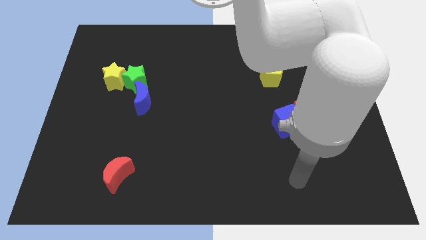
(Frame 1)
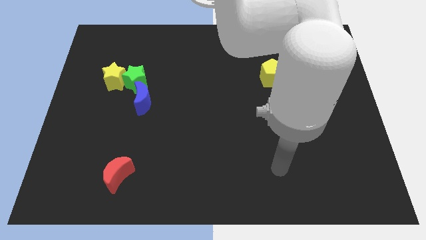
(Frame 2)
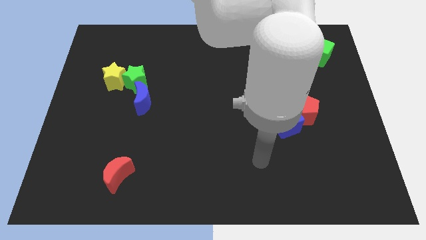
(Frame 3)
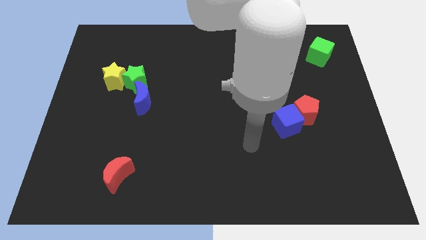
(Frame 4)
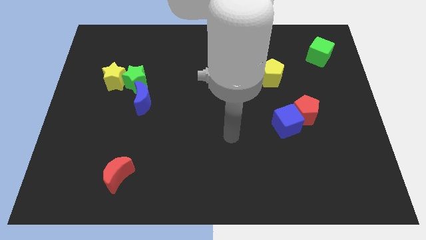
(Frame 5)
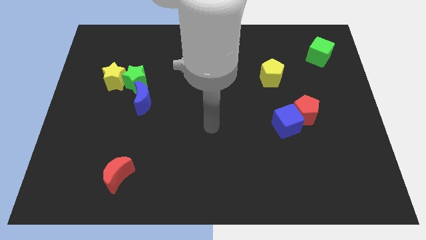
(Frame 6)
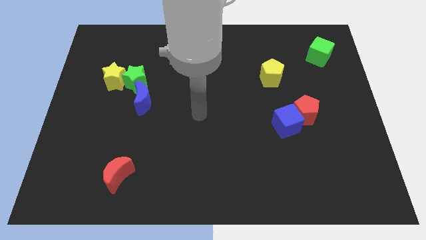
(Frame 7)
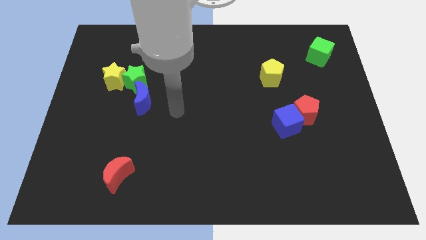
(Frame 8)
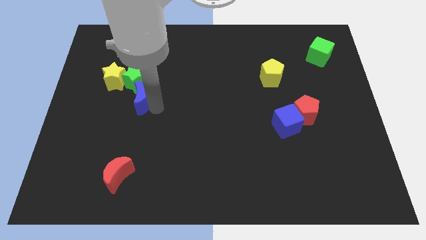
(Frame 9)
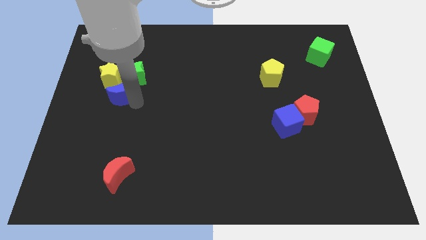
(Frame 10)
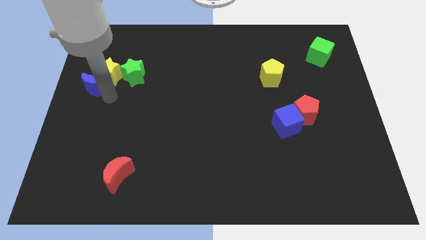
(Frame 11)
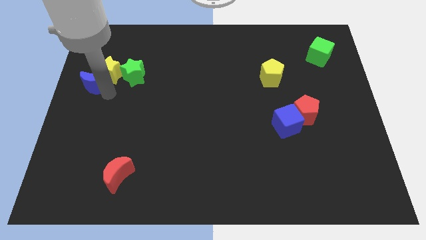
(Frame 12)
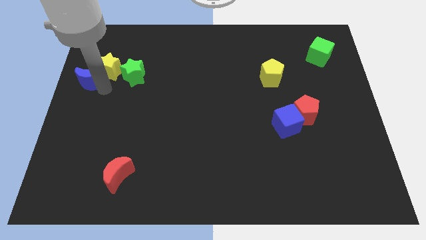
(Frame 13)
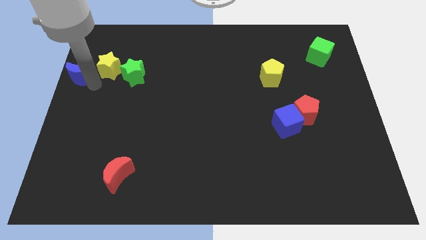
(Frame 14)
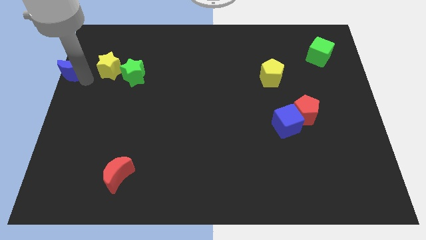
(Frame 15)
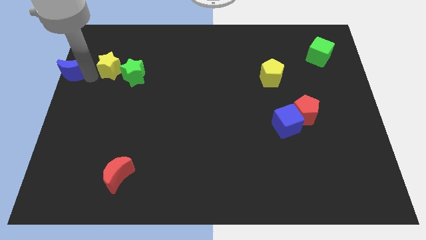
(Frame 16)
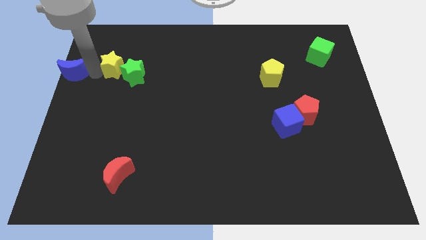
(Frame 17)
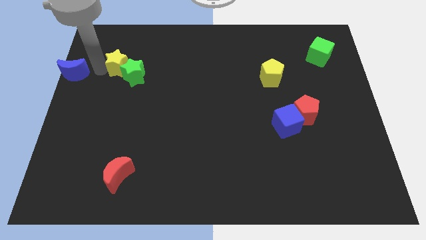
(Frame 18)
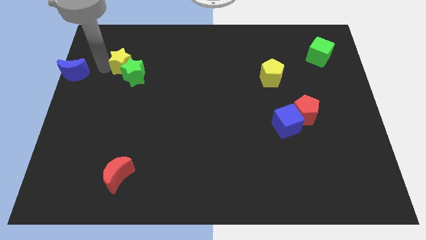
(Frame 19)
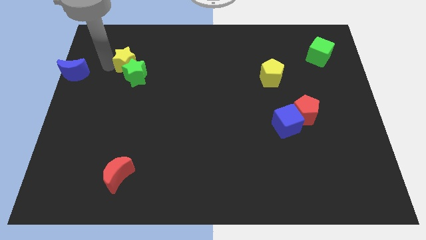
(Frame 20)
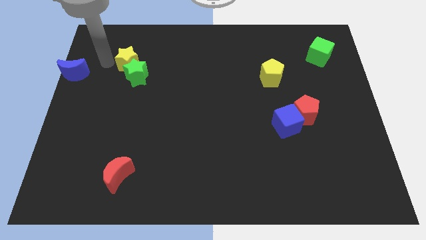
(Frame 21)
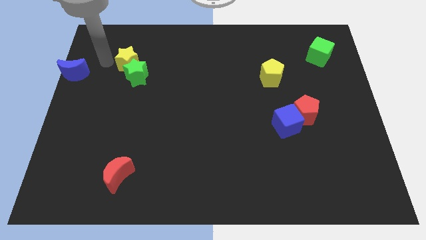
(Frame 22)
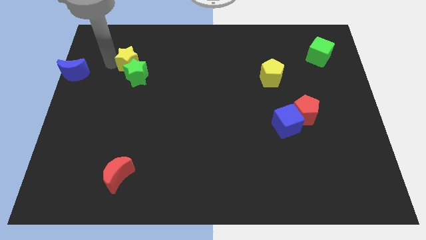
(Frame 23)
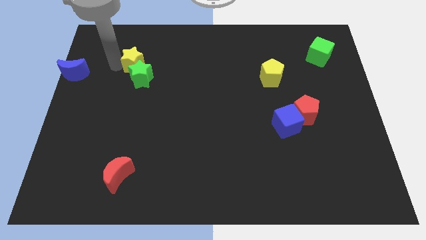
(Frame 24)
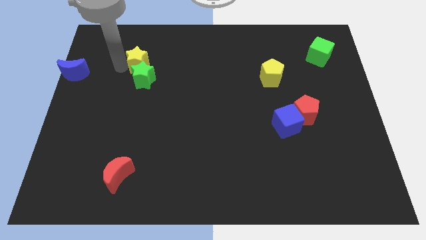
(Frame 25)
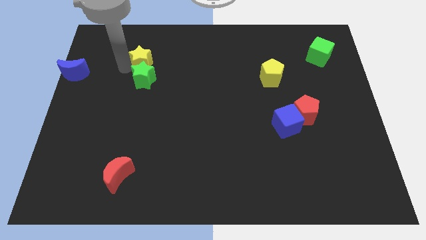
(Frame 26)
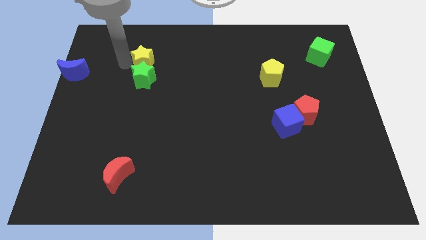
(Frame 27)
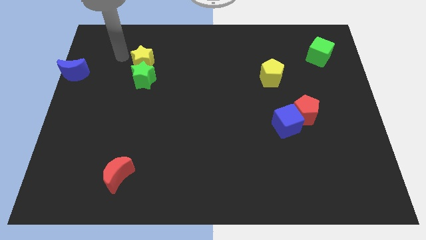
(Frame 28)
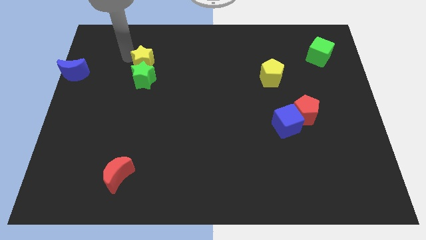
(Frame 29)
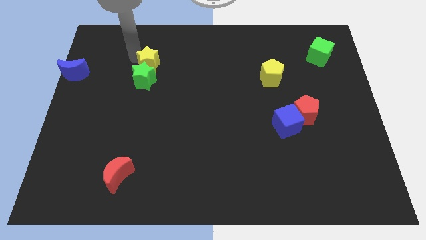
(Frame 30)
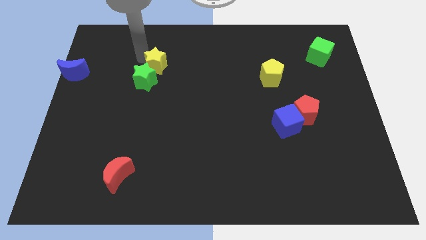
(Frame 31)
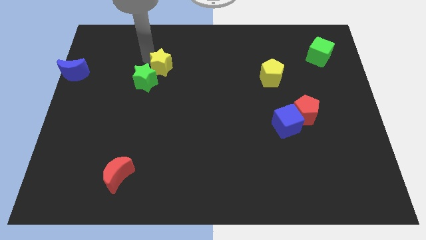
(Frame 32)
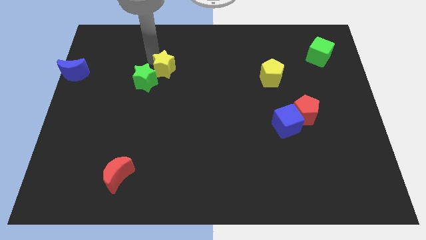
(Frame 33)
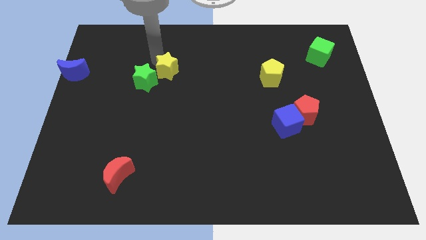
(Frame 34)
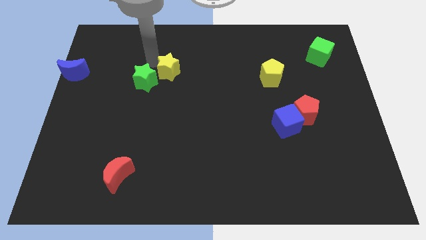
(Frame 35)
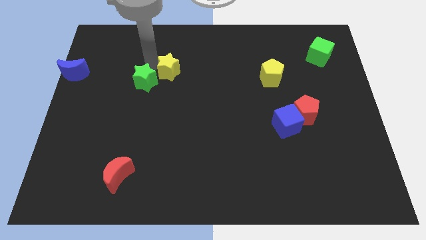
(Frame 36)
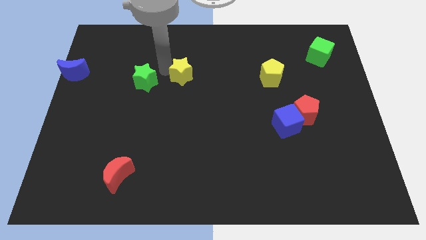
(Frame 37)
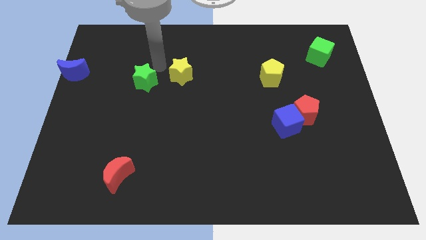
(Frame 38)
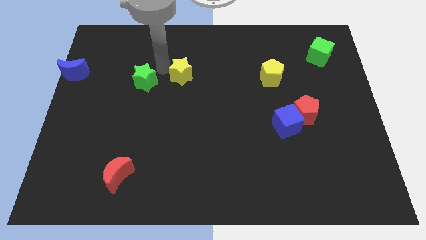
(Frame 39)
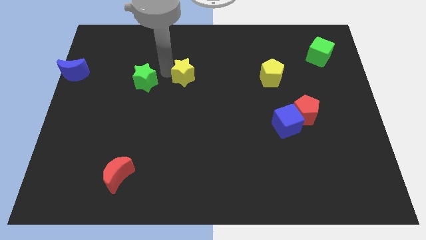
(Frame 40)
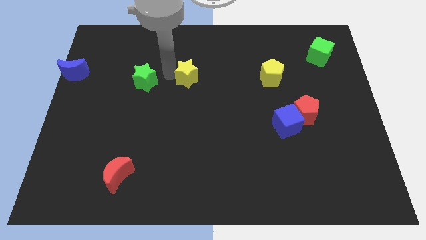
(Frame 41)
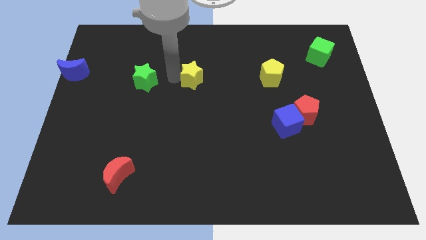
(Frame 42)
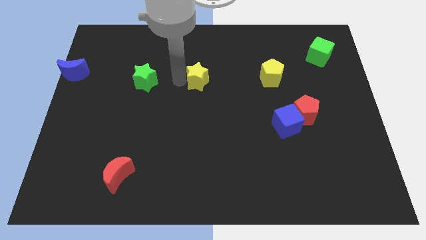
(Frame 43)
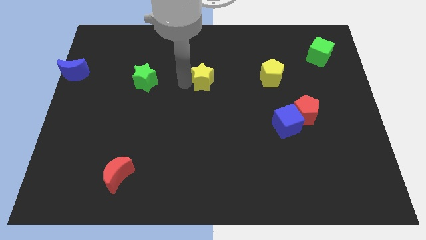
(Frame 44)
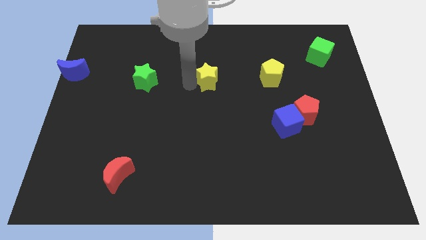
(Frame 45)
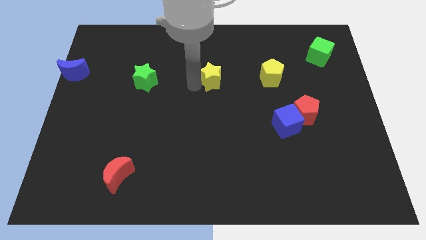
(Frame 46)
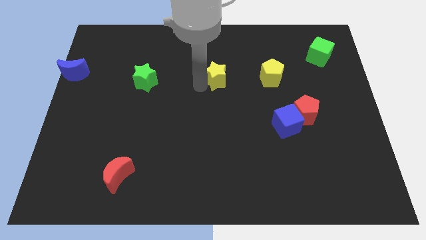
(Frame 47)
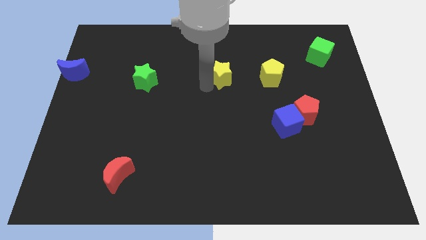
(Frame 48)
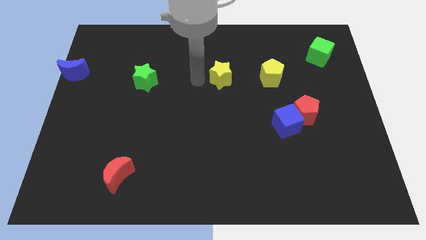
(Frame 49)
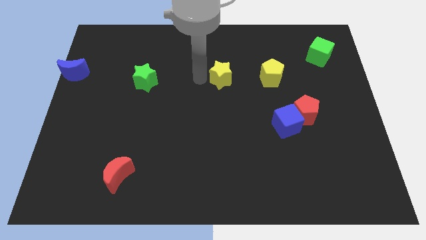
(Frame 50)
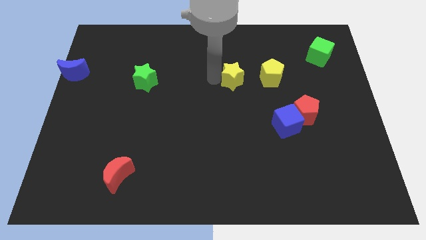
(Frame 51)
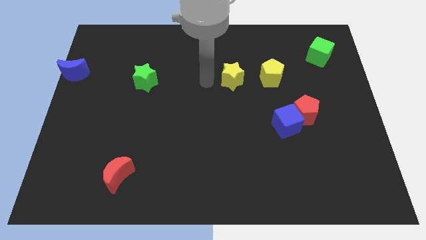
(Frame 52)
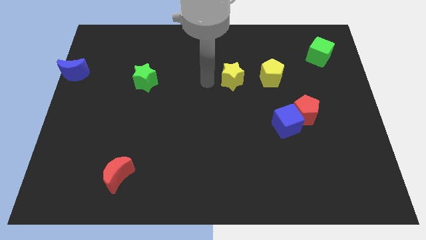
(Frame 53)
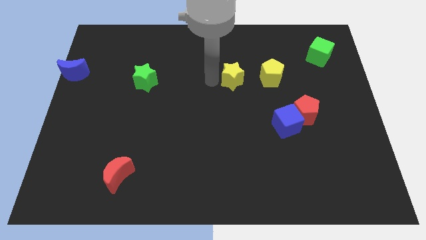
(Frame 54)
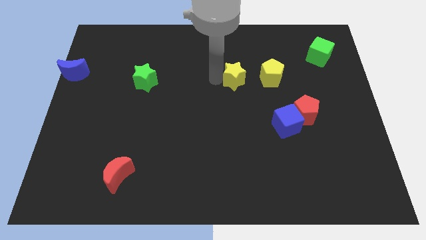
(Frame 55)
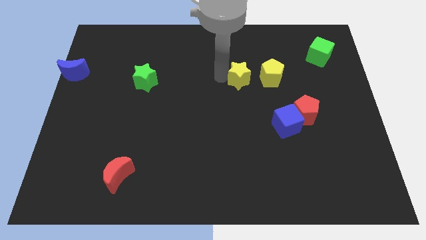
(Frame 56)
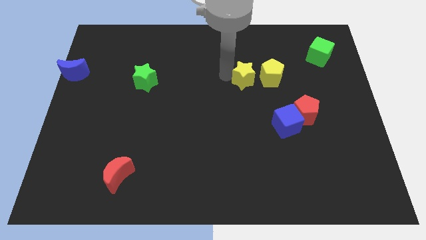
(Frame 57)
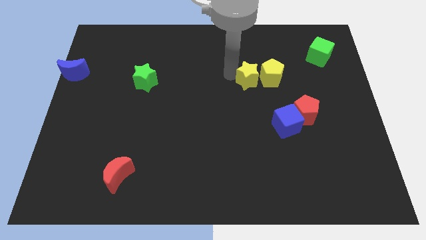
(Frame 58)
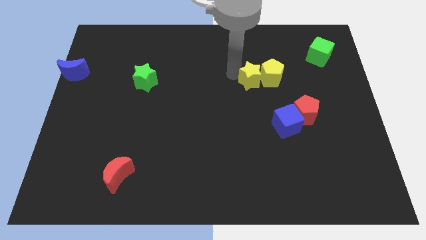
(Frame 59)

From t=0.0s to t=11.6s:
put the yellow star next to the yellow pentagon

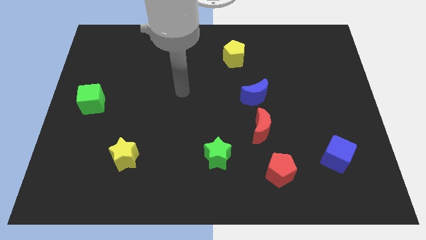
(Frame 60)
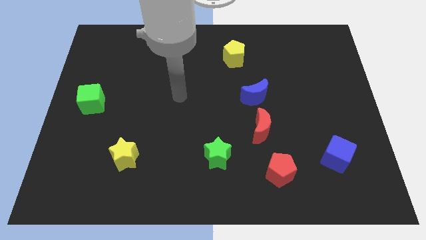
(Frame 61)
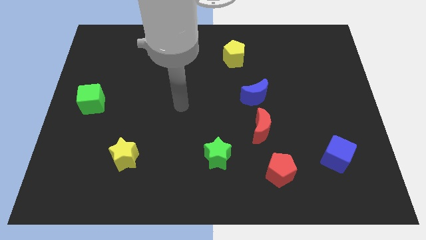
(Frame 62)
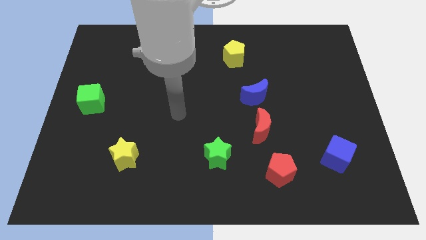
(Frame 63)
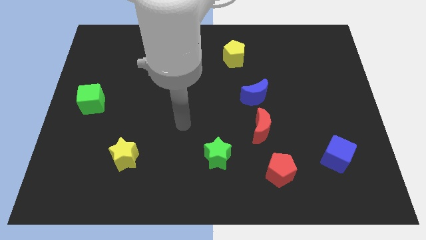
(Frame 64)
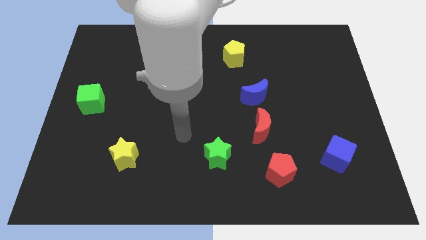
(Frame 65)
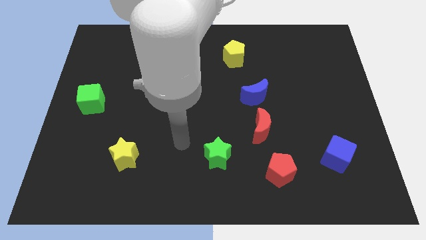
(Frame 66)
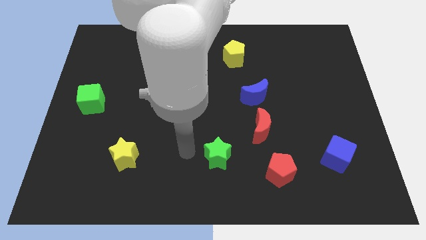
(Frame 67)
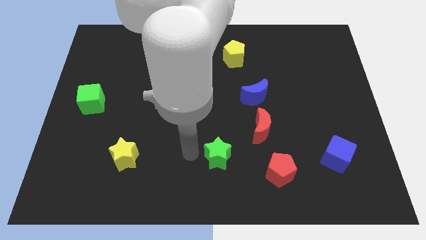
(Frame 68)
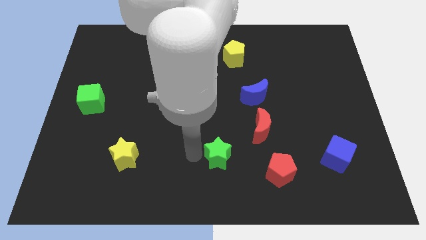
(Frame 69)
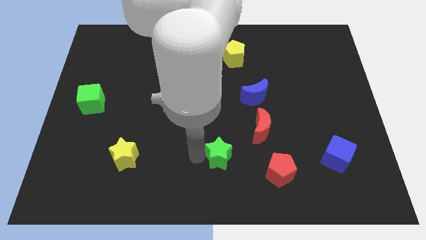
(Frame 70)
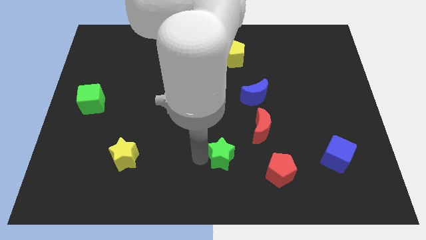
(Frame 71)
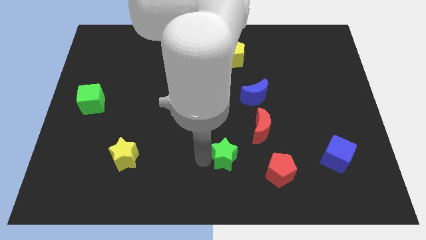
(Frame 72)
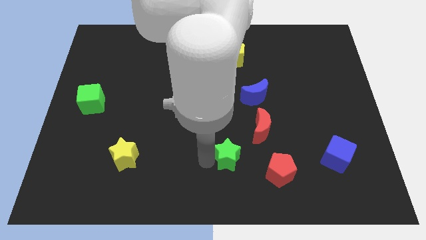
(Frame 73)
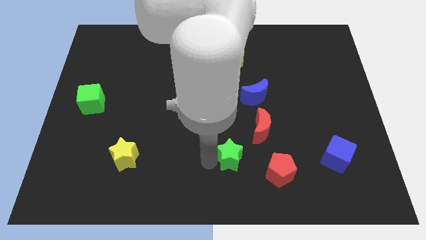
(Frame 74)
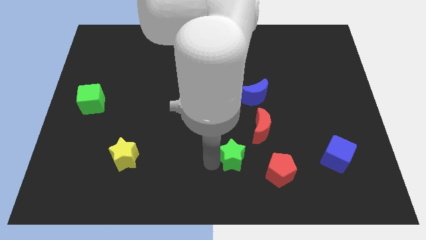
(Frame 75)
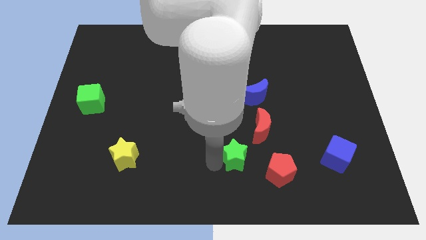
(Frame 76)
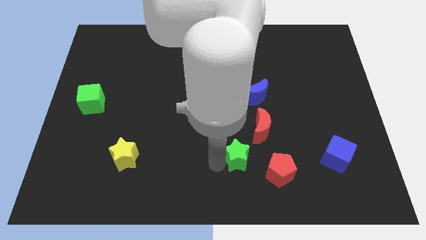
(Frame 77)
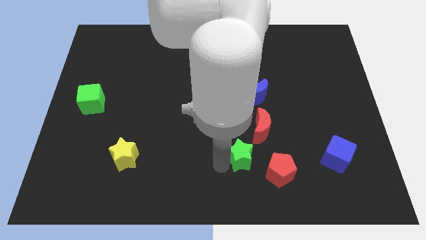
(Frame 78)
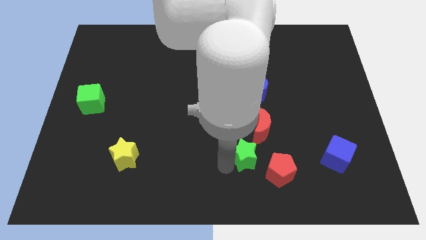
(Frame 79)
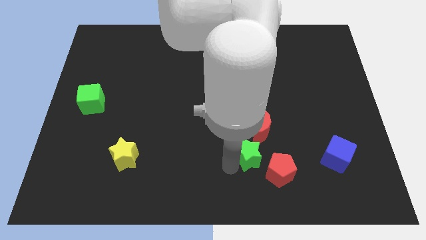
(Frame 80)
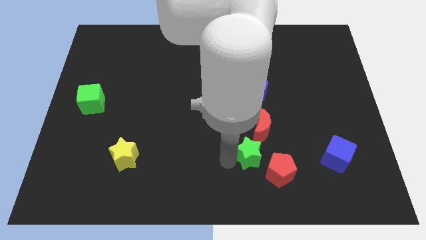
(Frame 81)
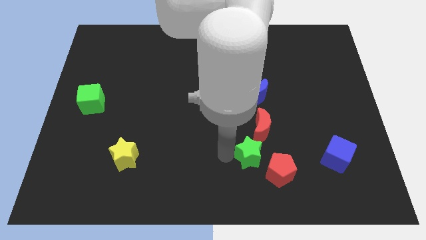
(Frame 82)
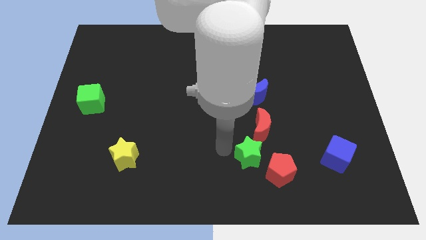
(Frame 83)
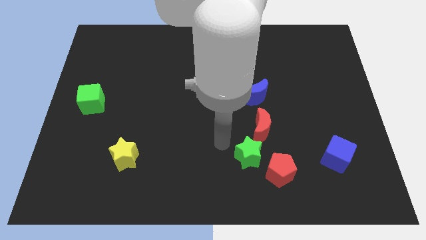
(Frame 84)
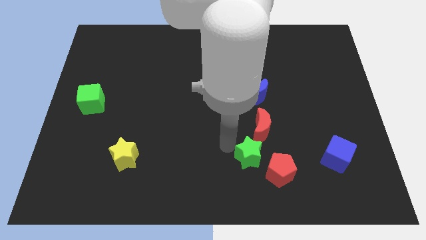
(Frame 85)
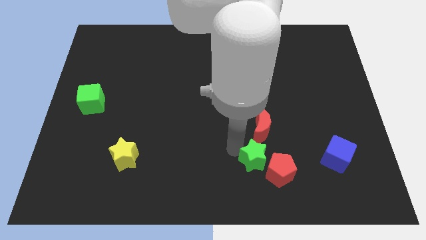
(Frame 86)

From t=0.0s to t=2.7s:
move the green star close to the red pentagon
